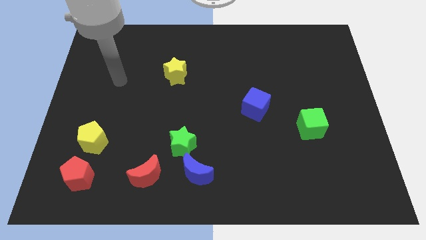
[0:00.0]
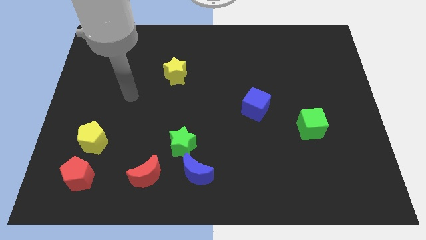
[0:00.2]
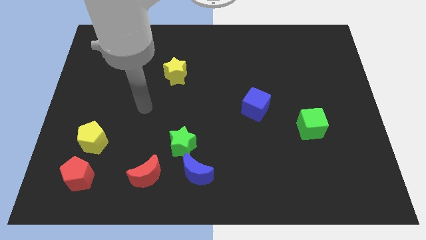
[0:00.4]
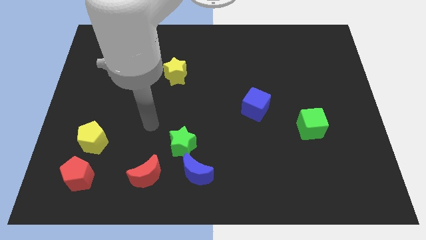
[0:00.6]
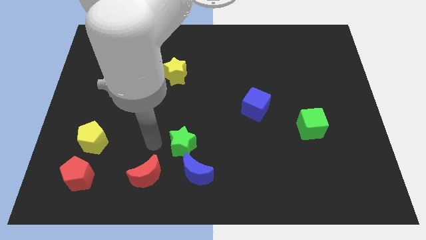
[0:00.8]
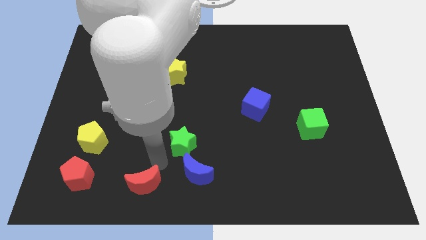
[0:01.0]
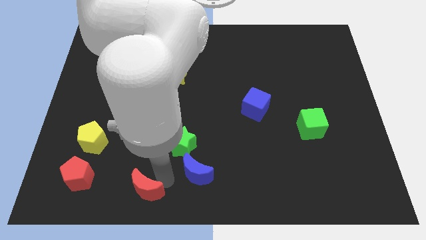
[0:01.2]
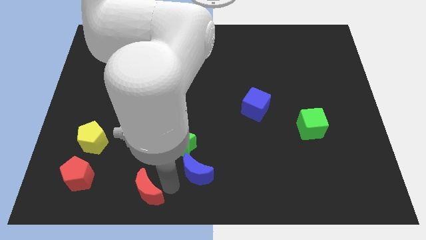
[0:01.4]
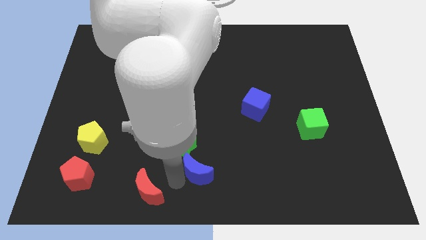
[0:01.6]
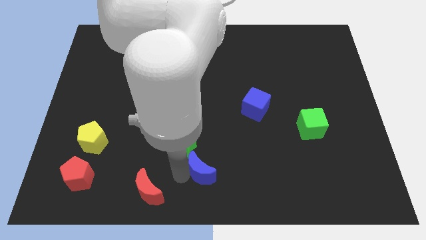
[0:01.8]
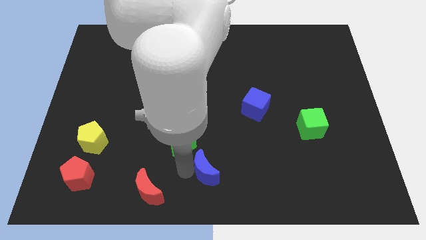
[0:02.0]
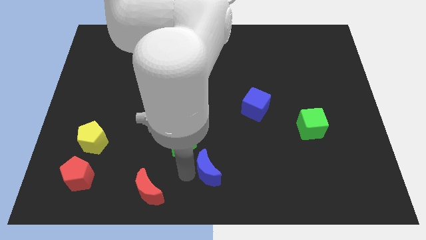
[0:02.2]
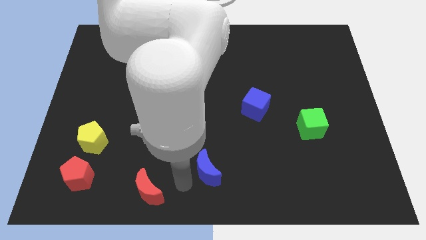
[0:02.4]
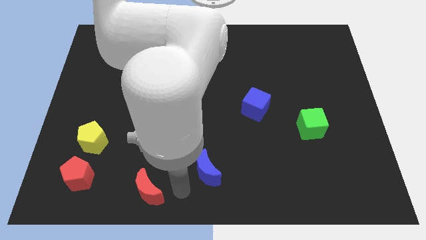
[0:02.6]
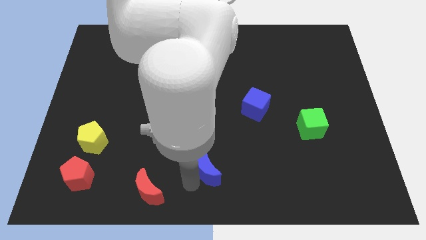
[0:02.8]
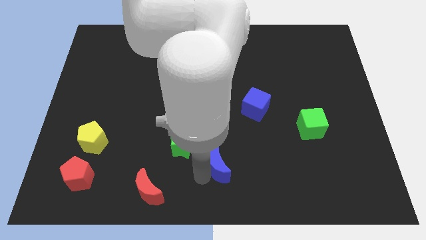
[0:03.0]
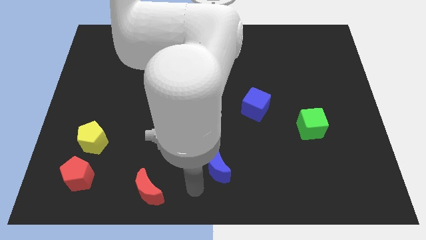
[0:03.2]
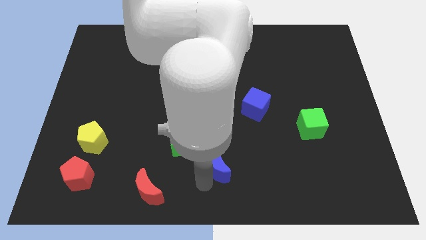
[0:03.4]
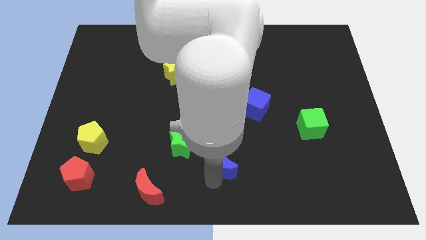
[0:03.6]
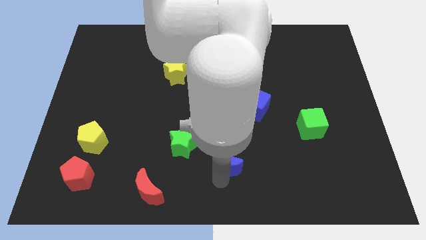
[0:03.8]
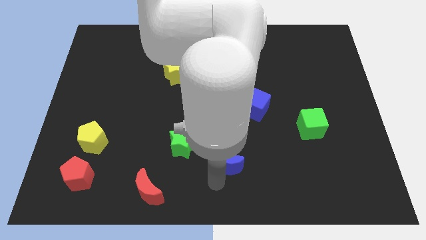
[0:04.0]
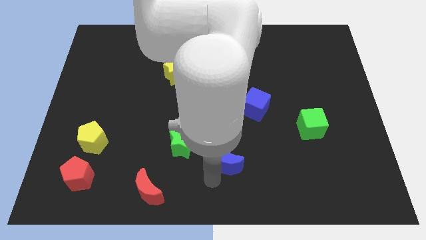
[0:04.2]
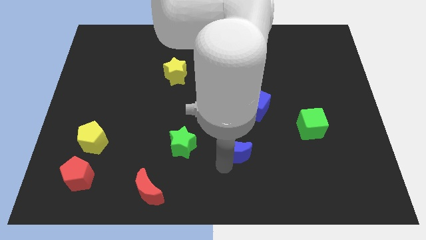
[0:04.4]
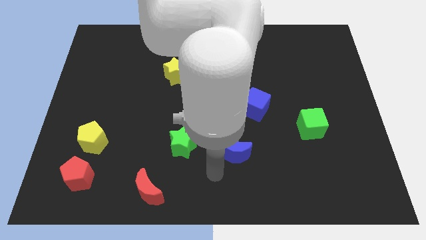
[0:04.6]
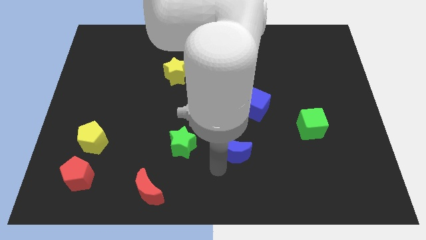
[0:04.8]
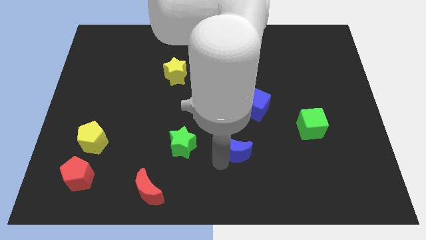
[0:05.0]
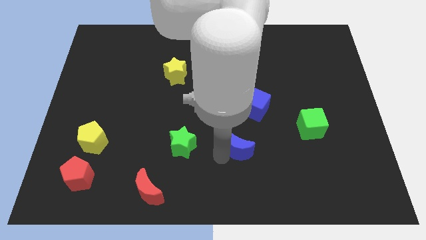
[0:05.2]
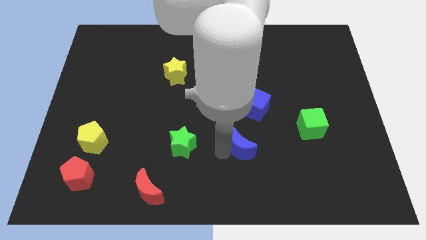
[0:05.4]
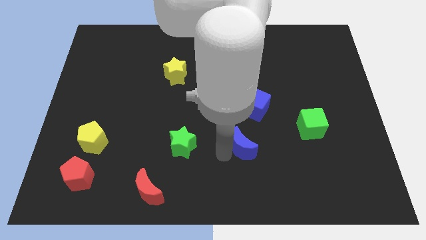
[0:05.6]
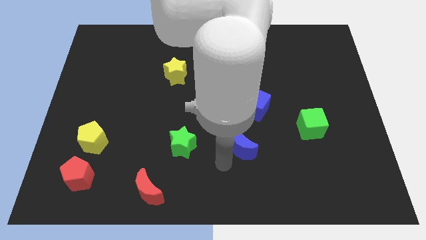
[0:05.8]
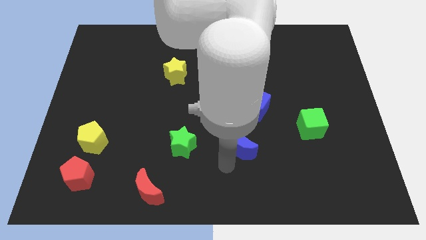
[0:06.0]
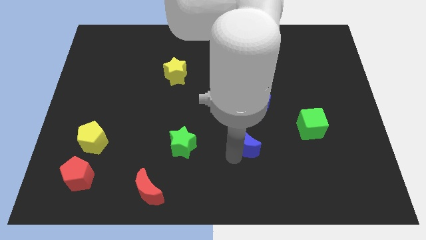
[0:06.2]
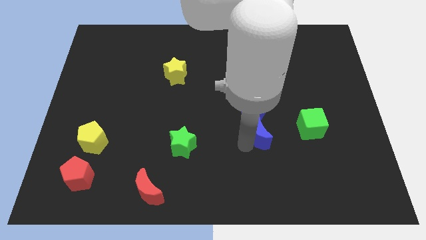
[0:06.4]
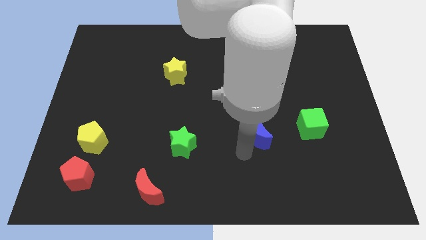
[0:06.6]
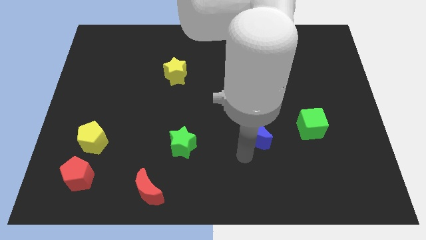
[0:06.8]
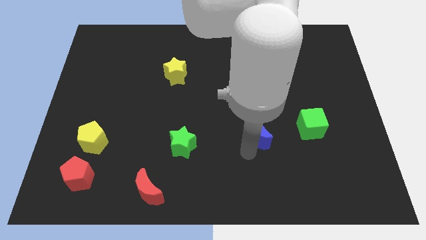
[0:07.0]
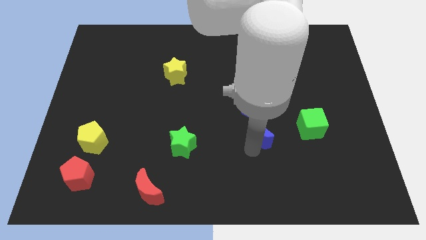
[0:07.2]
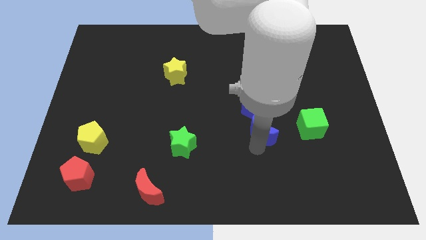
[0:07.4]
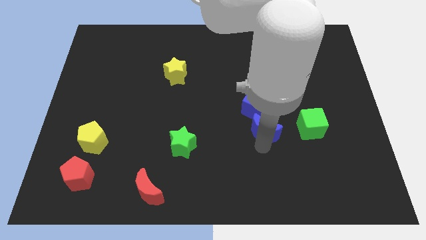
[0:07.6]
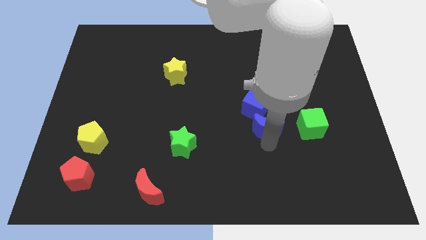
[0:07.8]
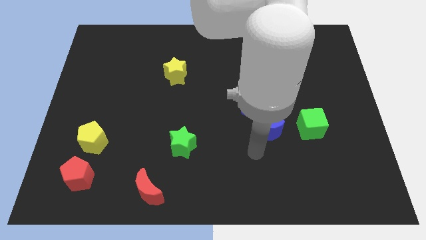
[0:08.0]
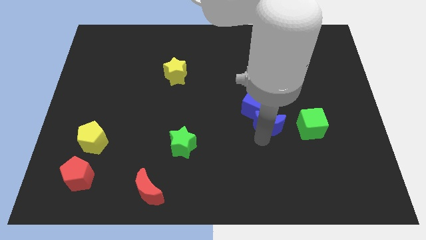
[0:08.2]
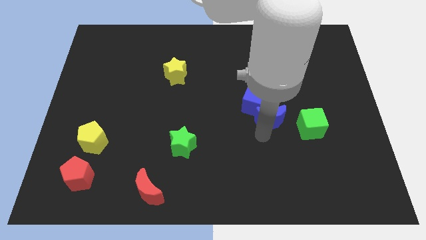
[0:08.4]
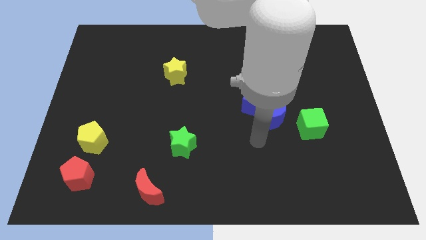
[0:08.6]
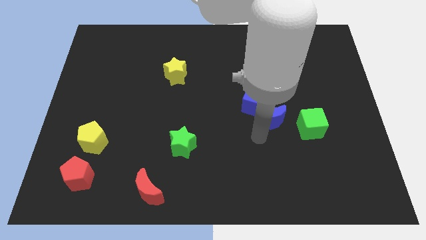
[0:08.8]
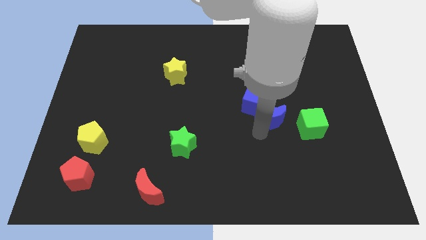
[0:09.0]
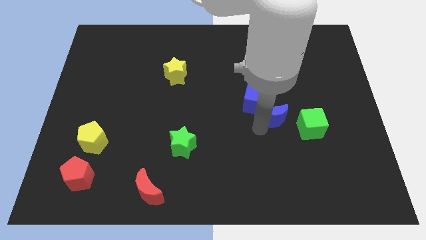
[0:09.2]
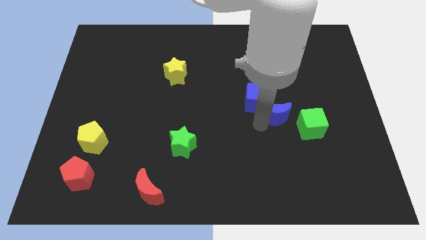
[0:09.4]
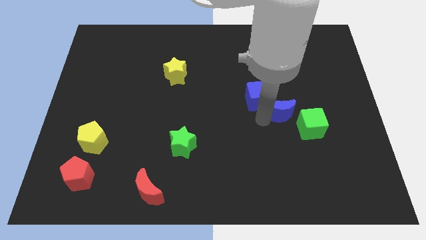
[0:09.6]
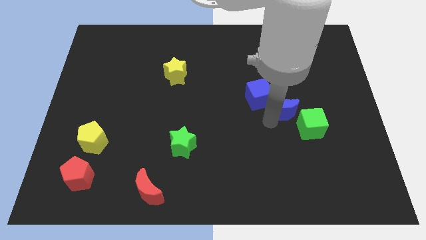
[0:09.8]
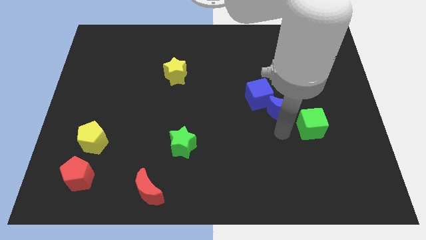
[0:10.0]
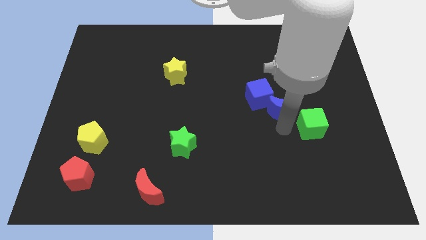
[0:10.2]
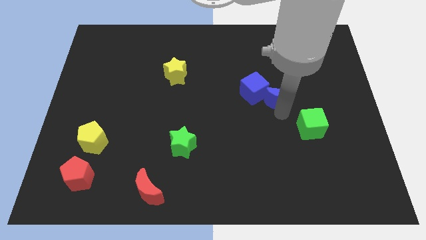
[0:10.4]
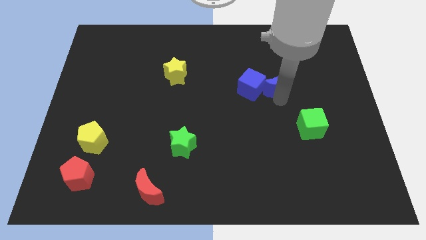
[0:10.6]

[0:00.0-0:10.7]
push the blue moon to the top right of the blue cube

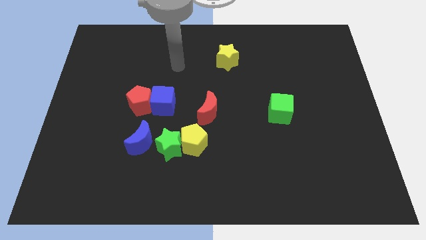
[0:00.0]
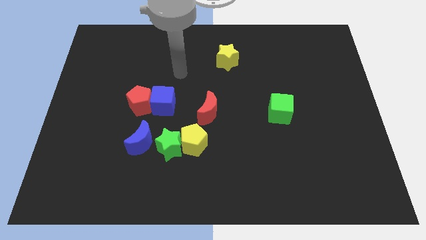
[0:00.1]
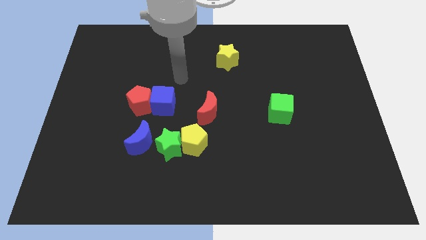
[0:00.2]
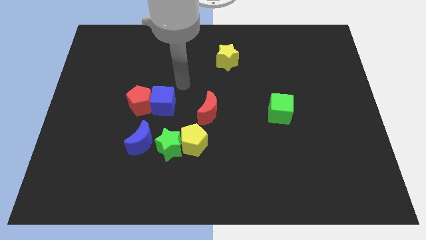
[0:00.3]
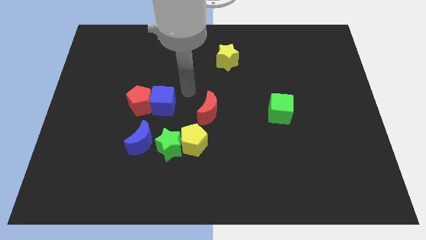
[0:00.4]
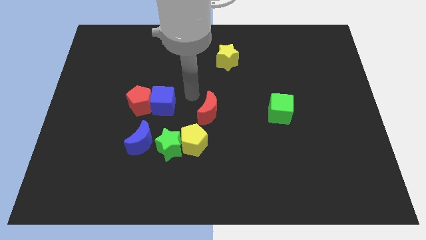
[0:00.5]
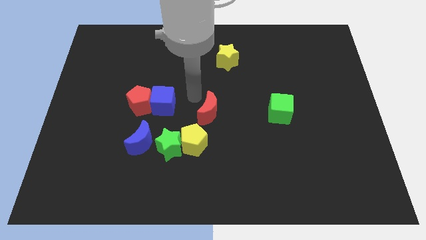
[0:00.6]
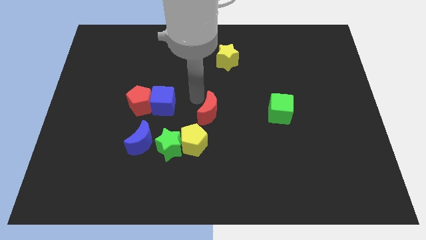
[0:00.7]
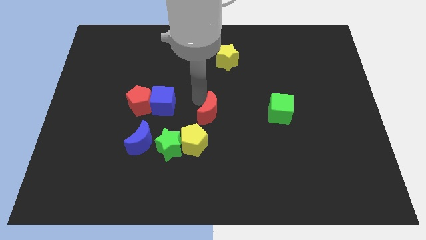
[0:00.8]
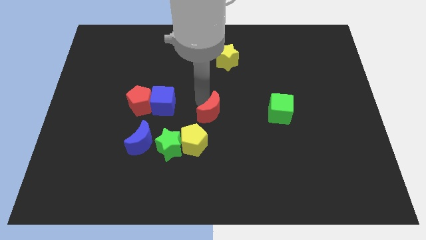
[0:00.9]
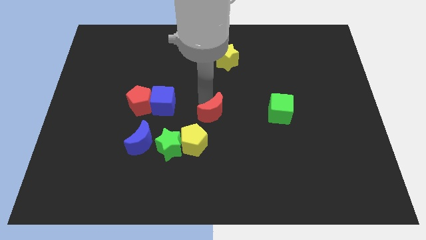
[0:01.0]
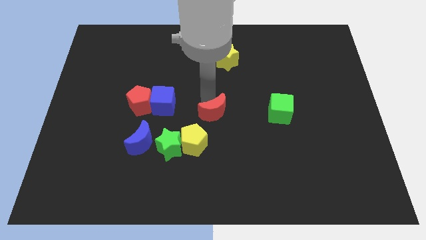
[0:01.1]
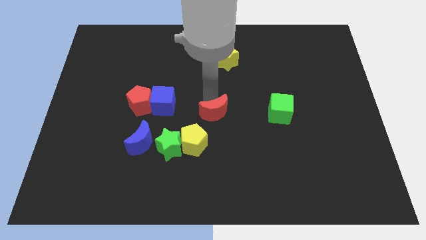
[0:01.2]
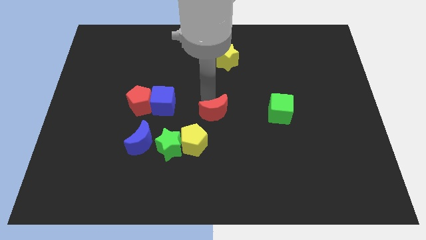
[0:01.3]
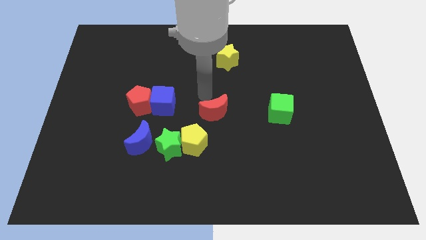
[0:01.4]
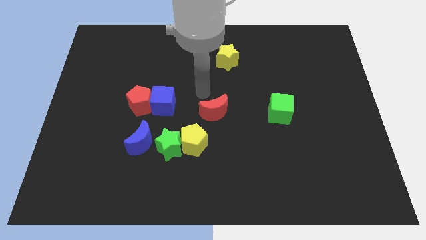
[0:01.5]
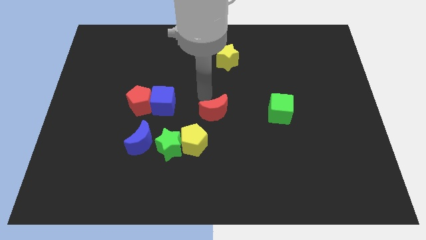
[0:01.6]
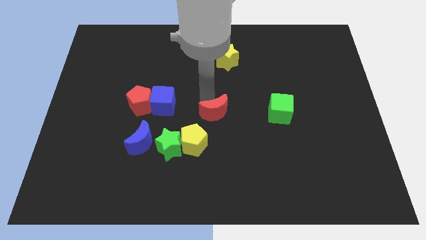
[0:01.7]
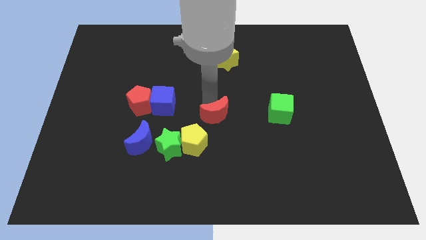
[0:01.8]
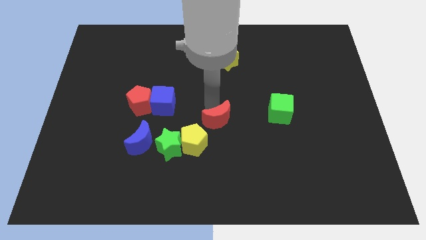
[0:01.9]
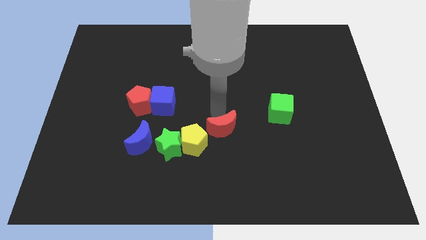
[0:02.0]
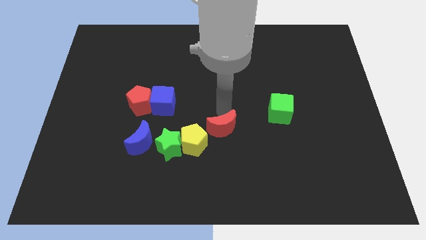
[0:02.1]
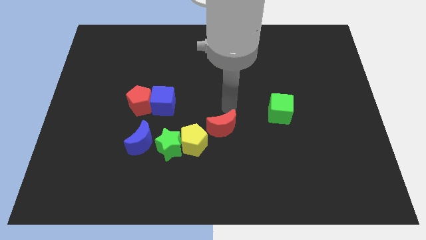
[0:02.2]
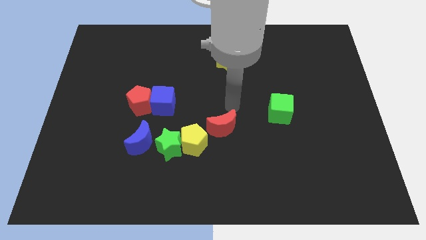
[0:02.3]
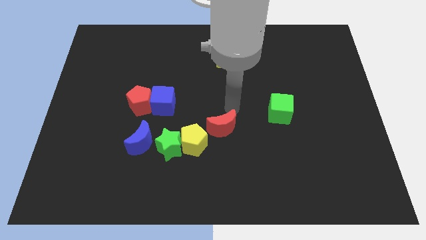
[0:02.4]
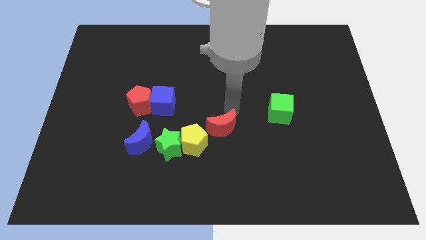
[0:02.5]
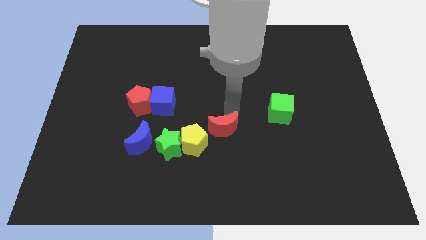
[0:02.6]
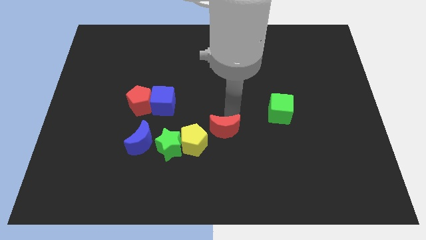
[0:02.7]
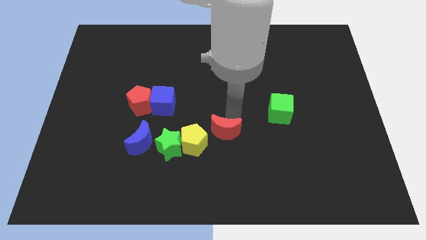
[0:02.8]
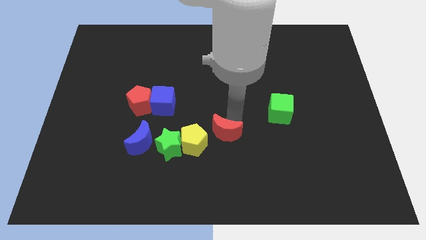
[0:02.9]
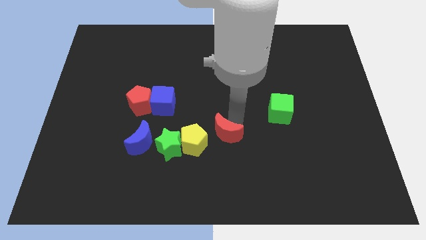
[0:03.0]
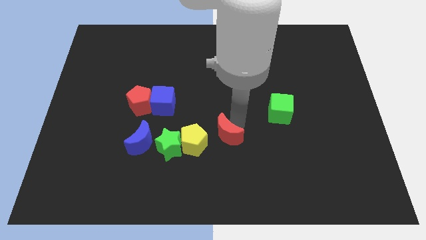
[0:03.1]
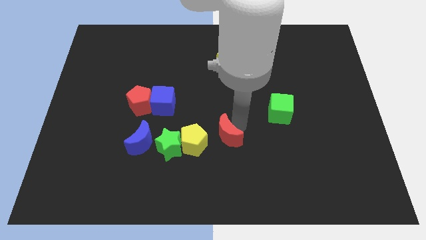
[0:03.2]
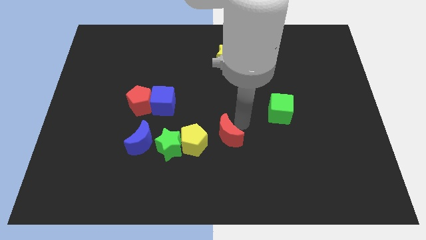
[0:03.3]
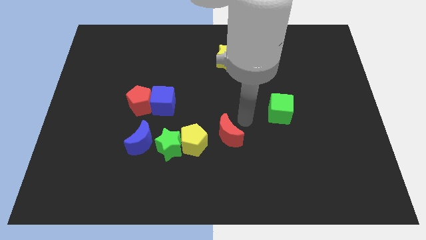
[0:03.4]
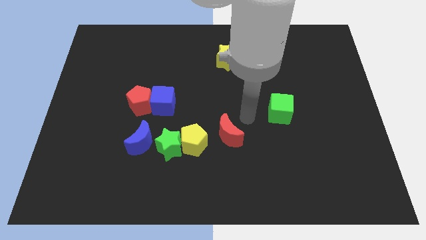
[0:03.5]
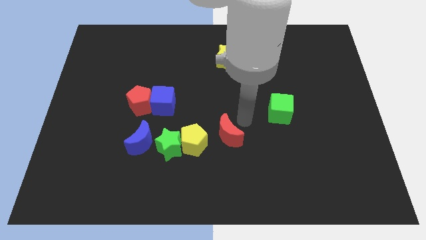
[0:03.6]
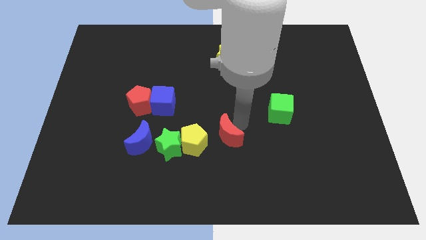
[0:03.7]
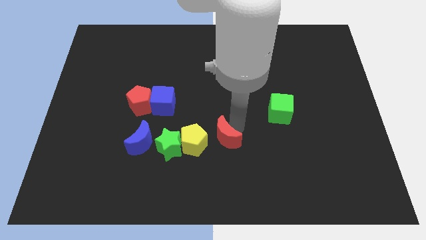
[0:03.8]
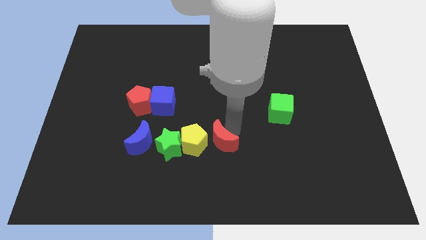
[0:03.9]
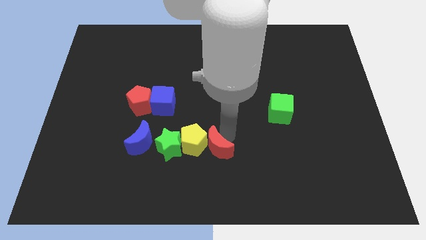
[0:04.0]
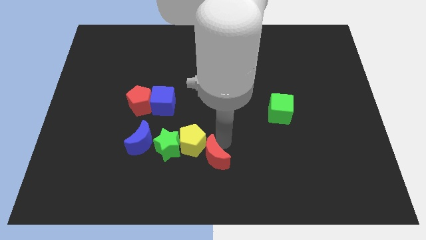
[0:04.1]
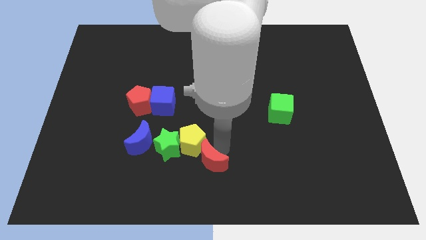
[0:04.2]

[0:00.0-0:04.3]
slide the red moon to the bottom right side of the green star
